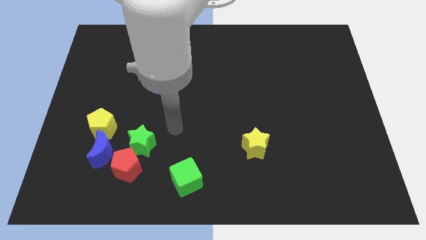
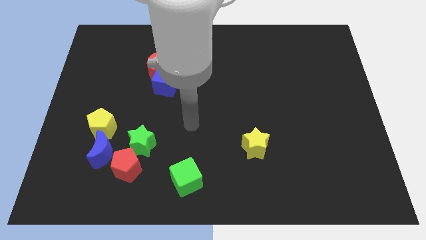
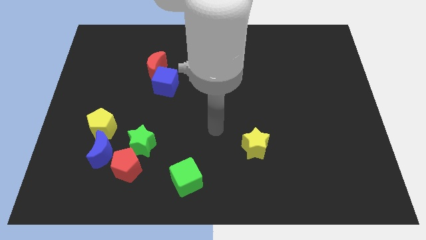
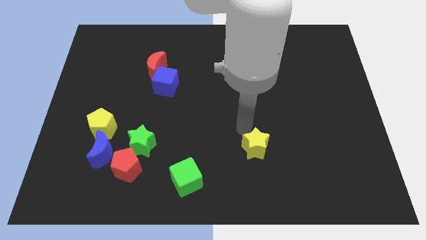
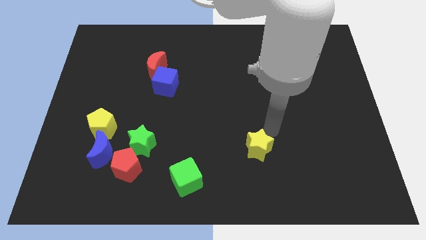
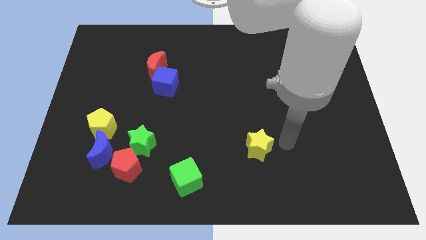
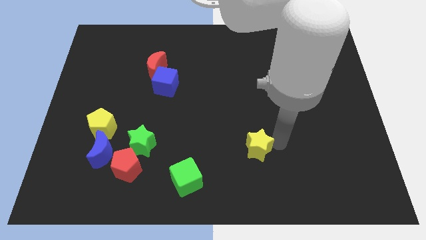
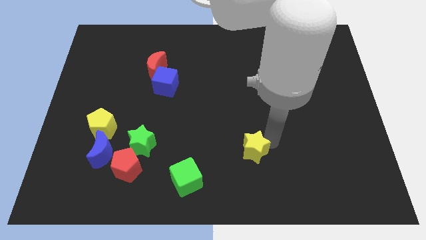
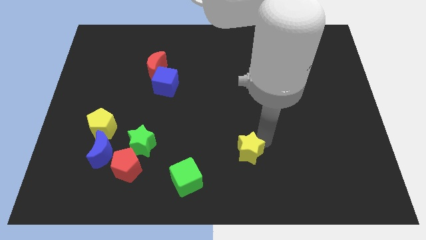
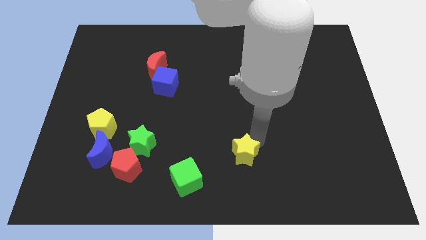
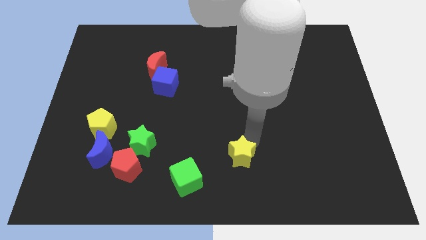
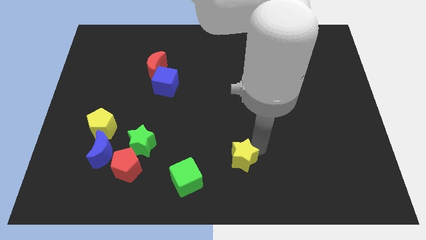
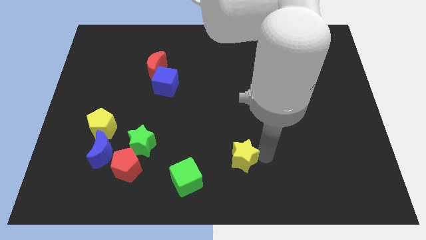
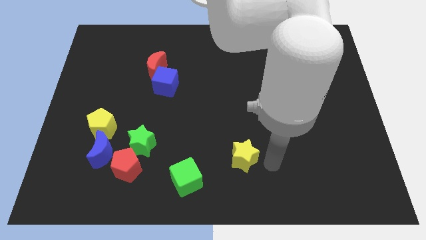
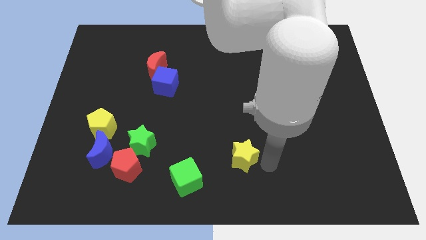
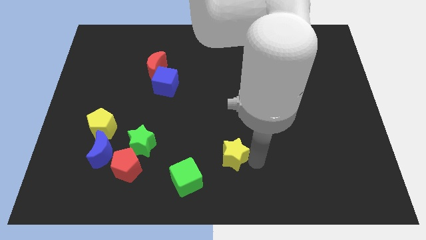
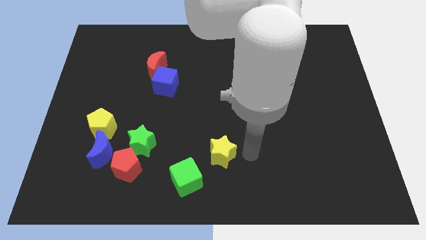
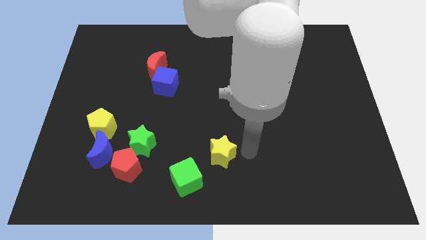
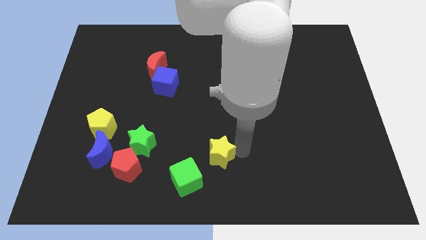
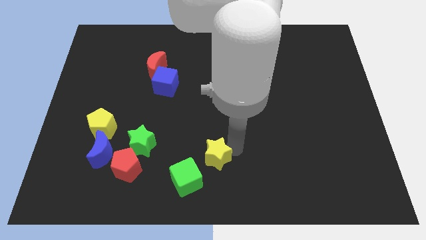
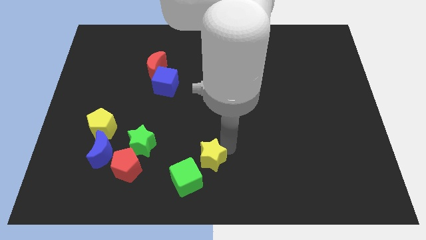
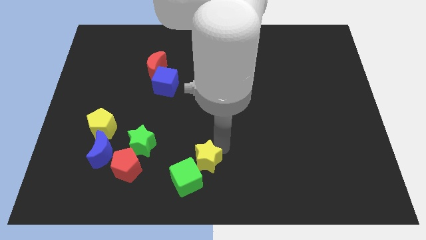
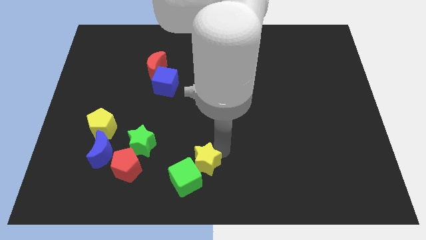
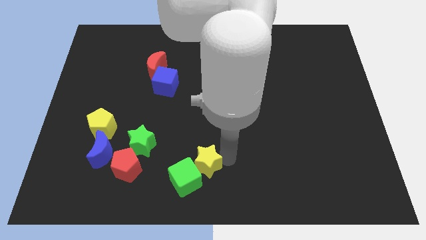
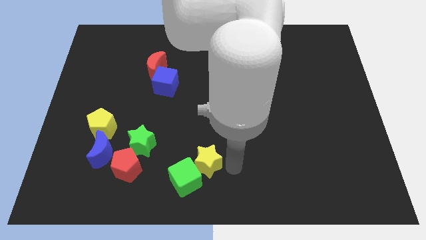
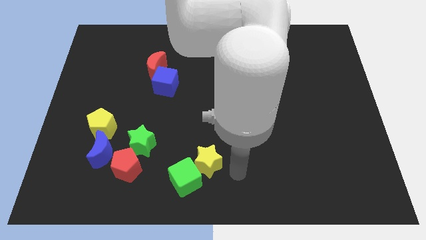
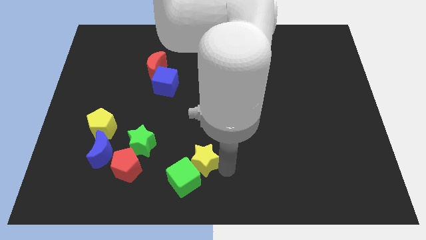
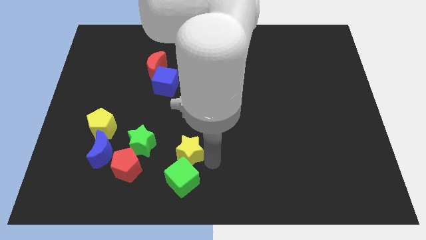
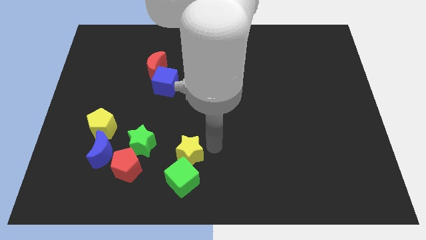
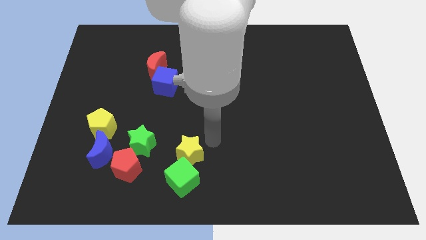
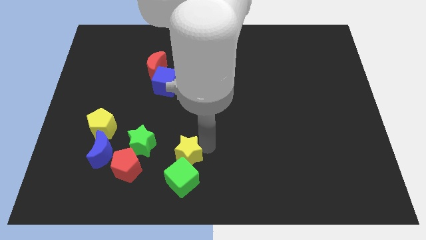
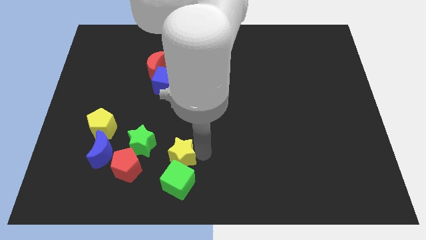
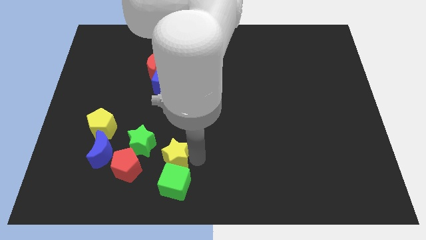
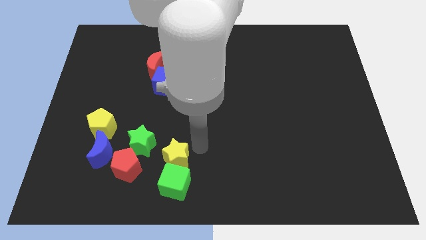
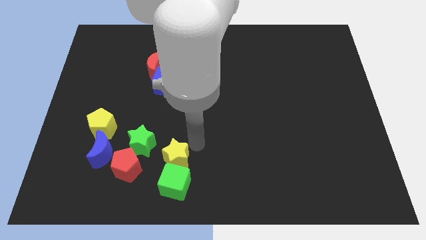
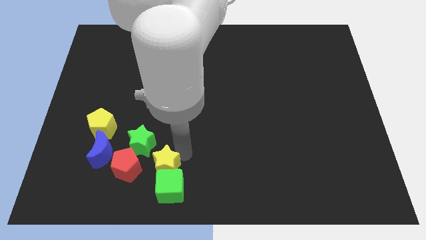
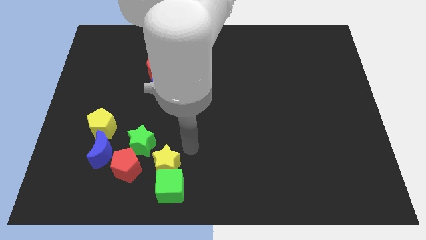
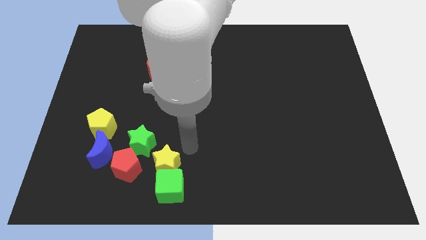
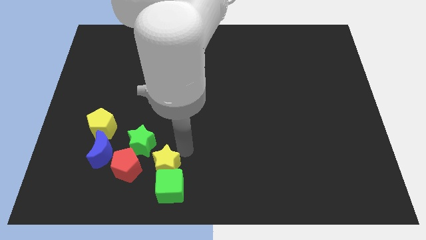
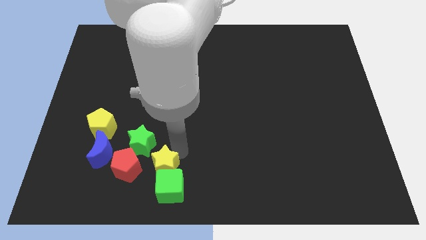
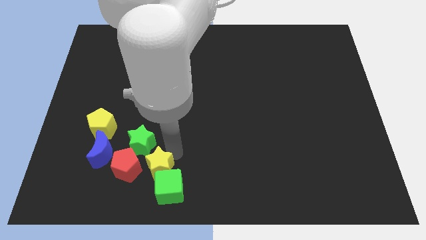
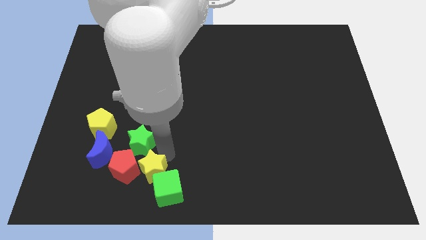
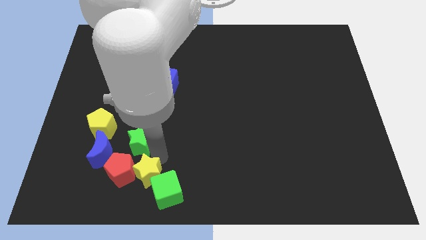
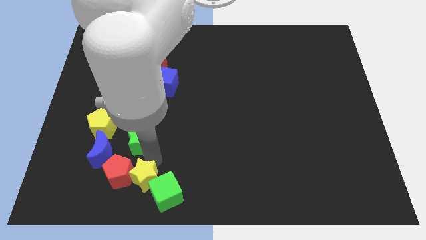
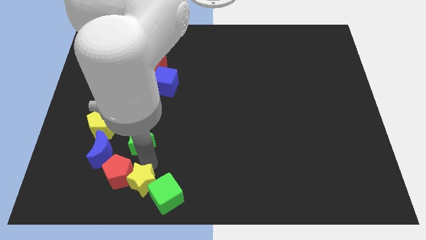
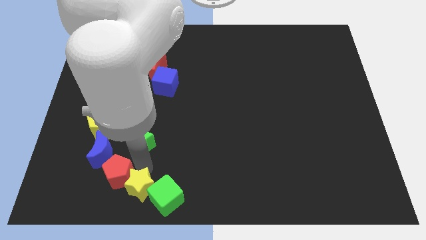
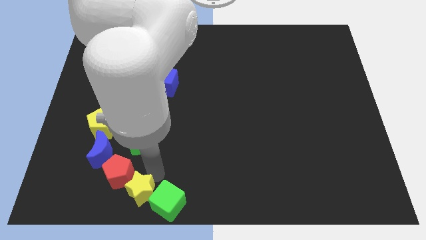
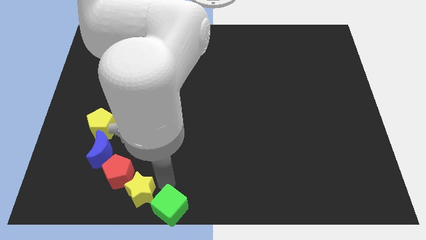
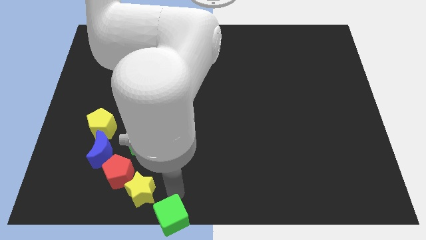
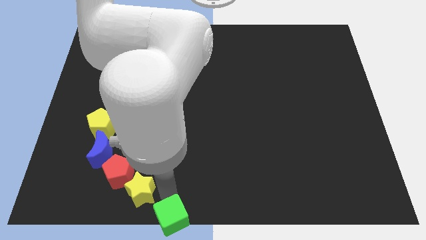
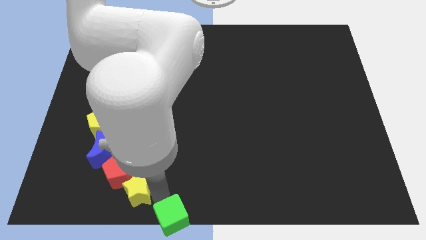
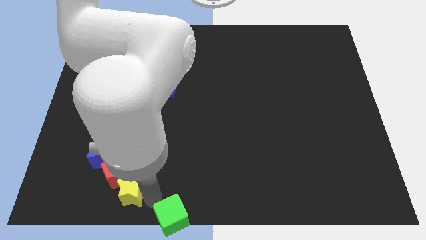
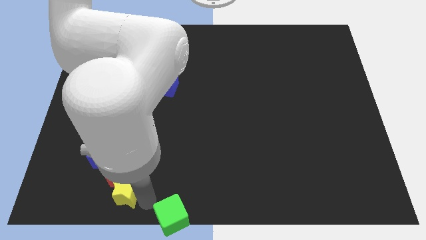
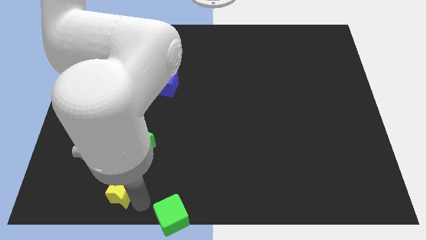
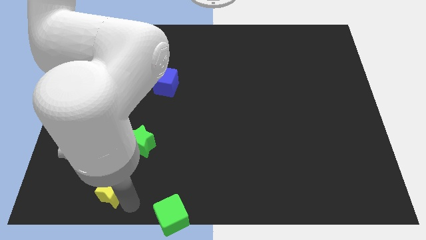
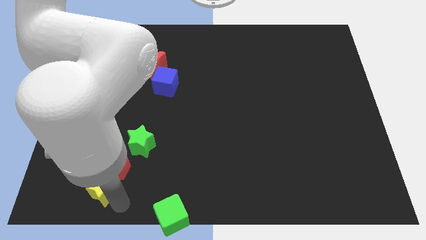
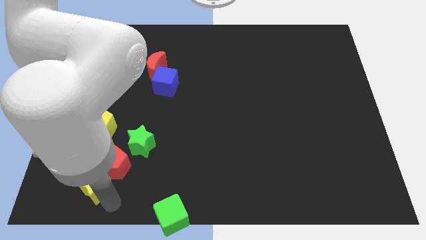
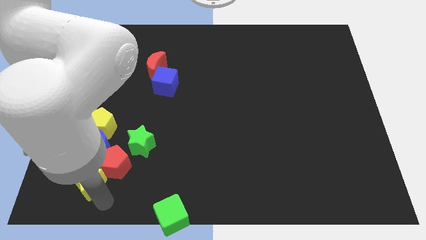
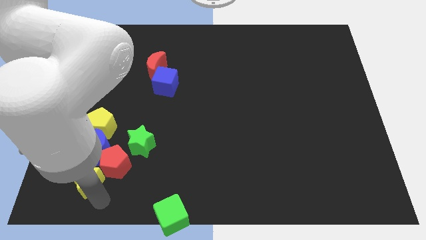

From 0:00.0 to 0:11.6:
slide the yellow star to the bottom left of the blue moon

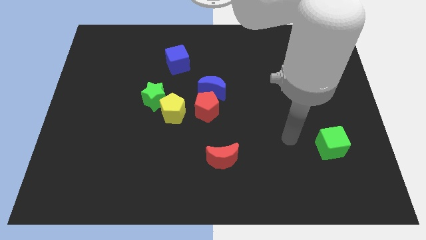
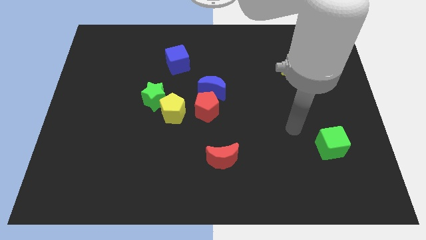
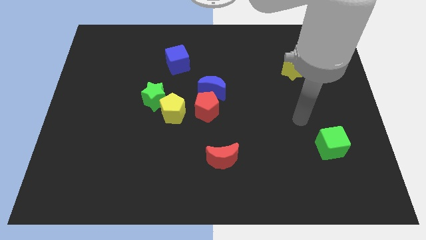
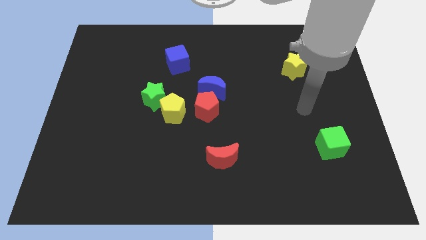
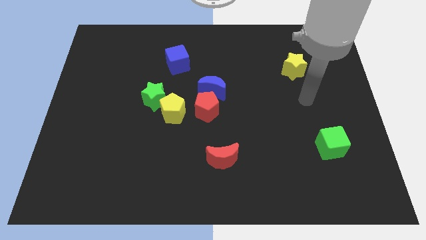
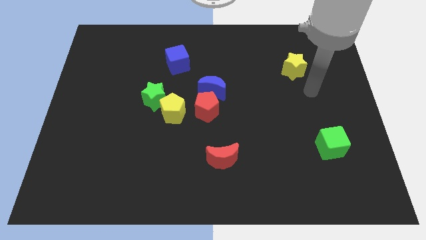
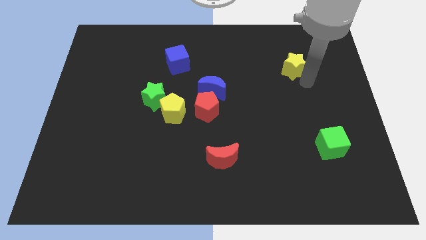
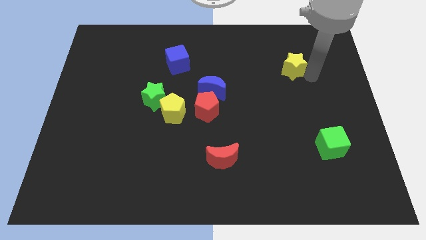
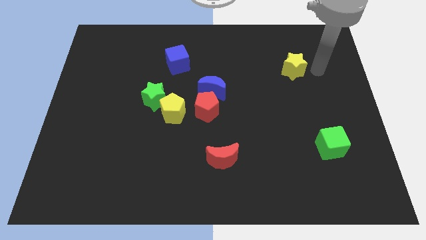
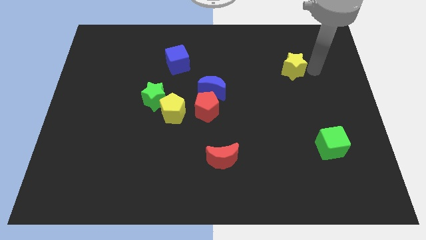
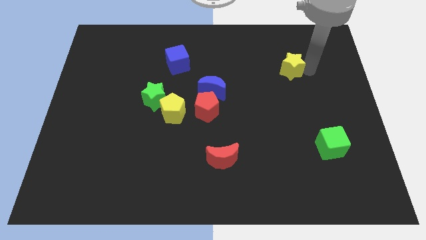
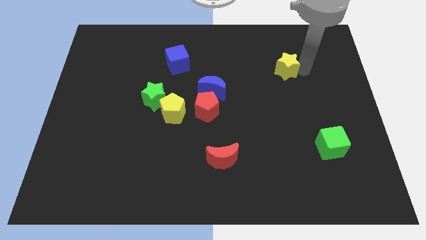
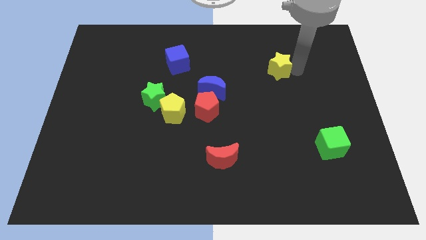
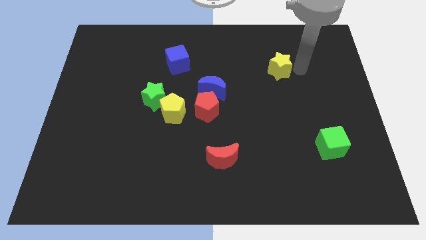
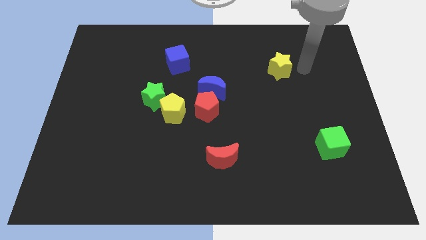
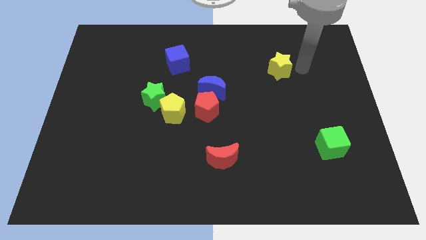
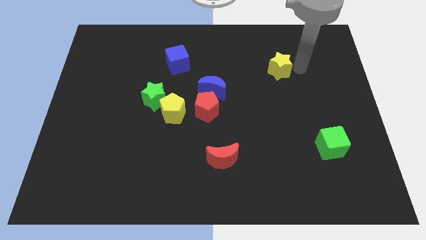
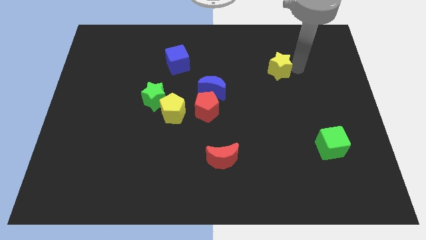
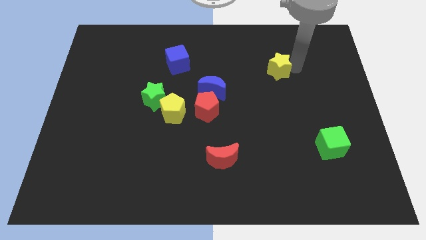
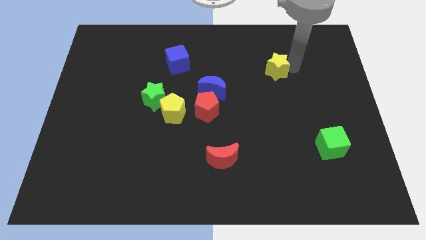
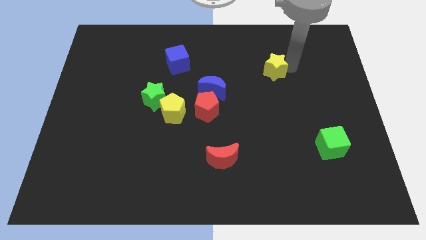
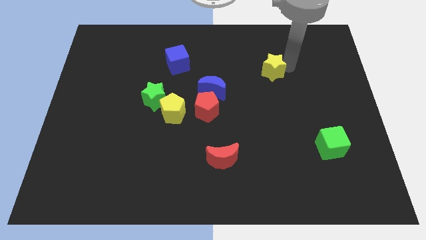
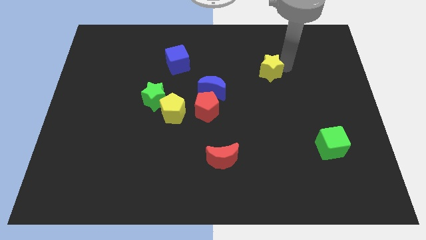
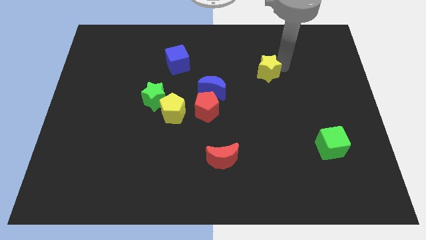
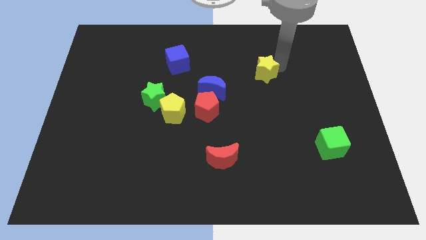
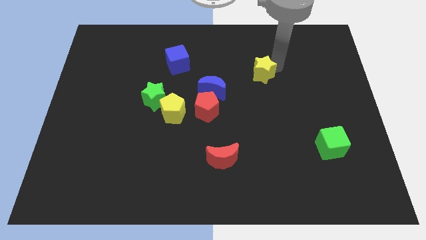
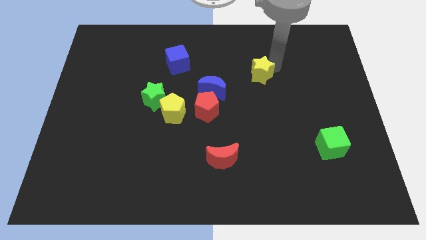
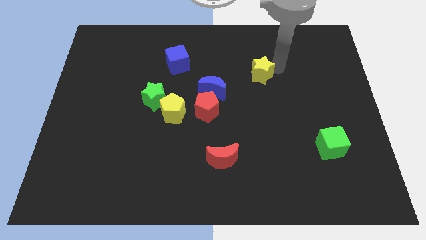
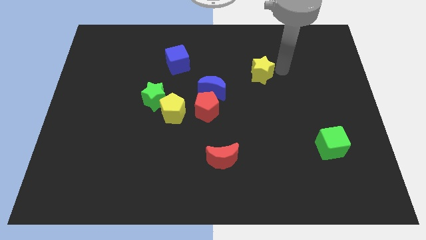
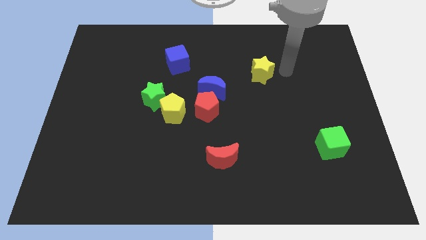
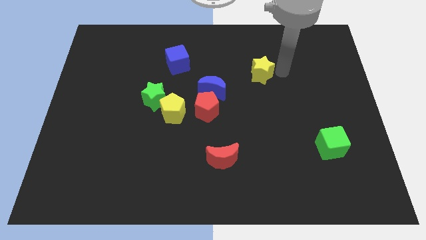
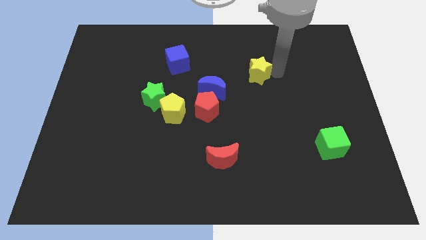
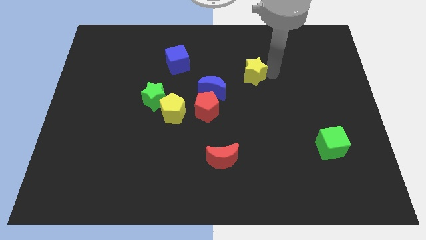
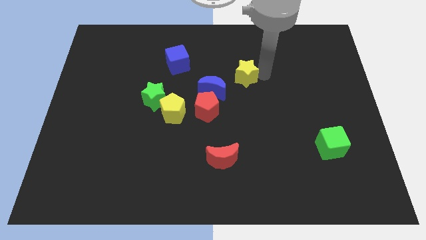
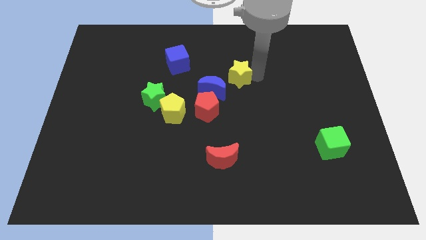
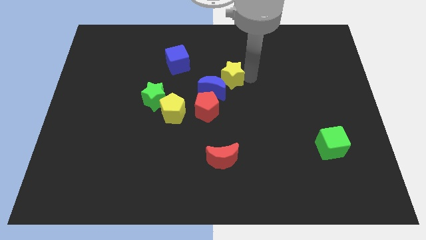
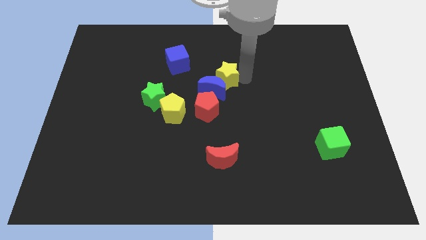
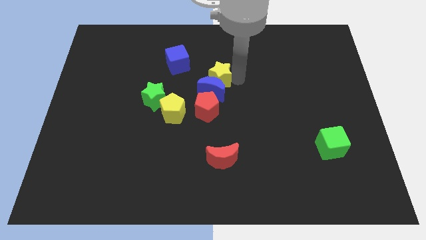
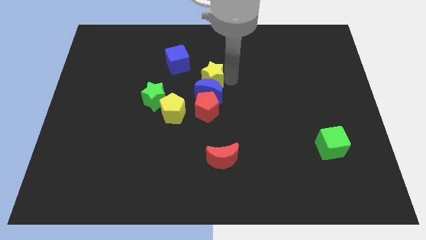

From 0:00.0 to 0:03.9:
slide the yellow star diagonally down and to the right of the blue cube
